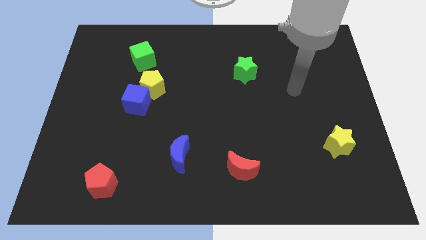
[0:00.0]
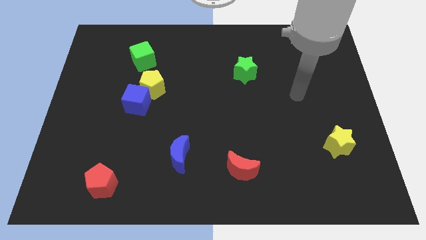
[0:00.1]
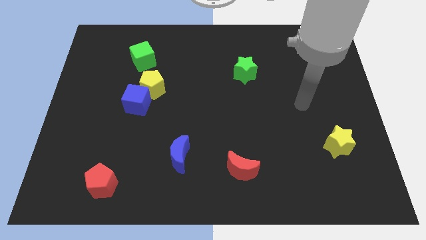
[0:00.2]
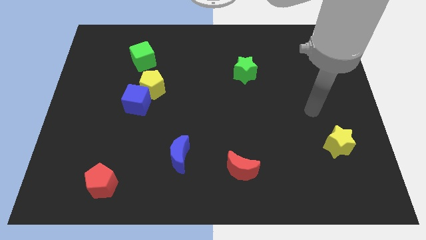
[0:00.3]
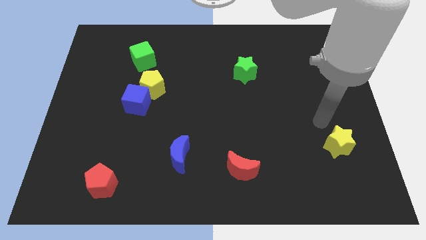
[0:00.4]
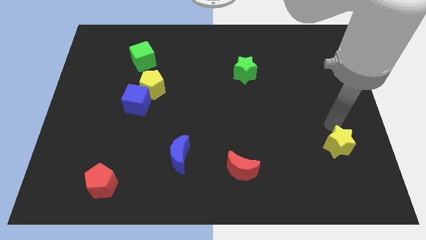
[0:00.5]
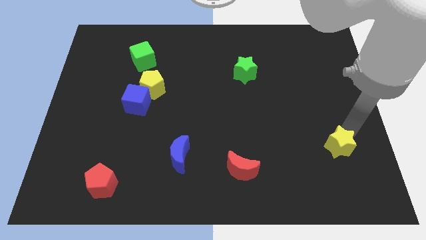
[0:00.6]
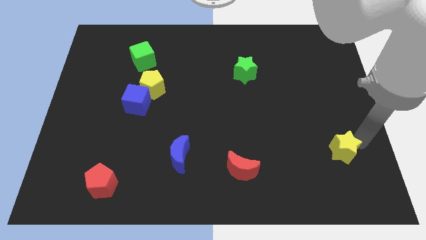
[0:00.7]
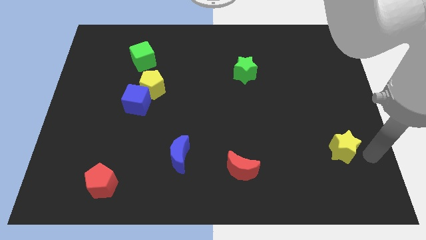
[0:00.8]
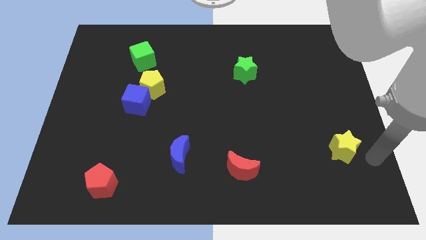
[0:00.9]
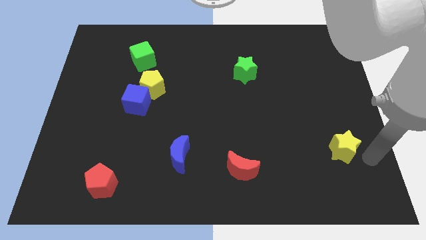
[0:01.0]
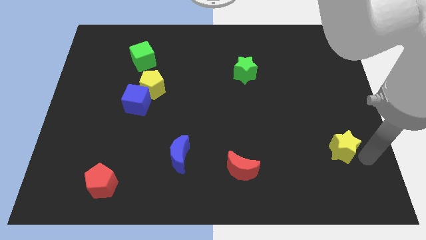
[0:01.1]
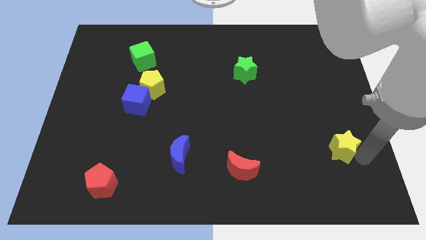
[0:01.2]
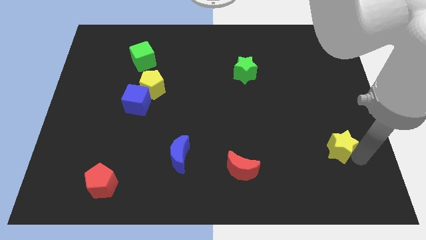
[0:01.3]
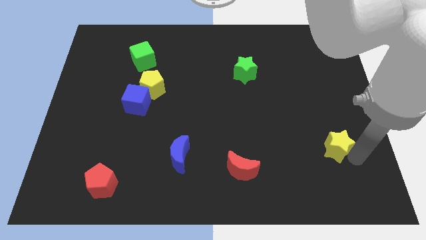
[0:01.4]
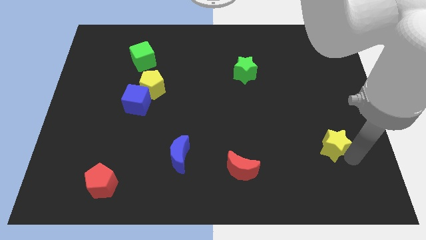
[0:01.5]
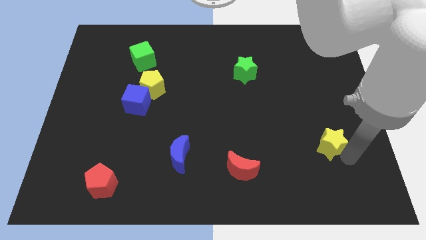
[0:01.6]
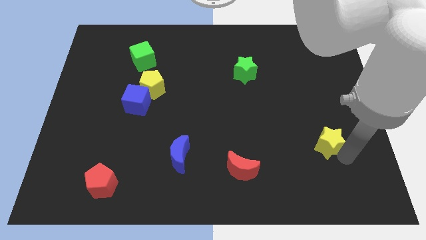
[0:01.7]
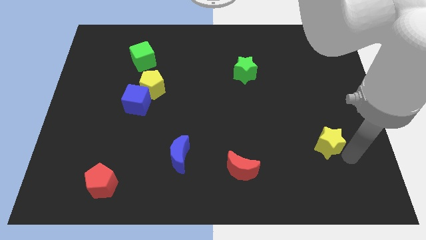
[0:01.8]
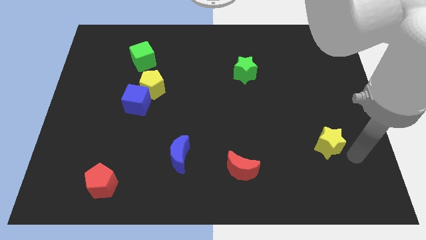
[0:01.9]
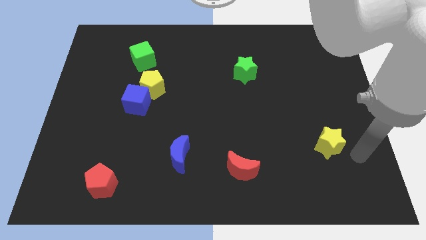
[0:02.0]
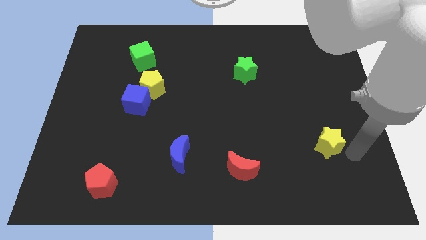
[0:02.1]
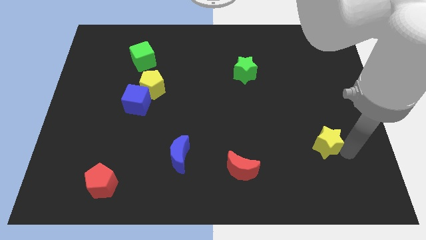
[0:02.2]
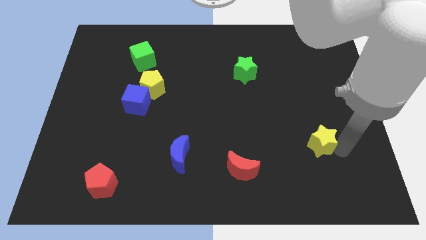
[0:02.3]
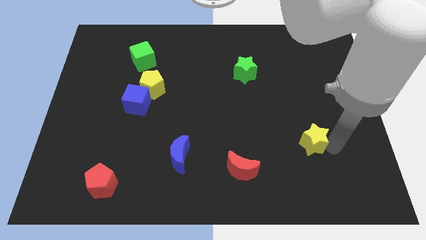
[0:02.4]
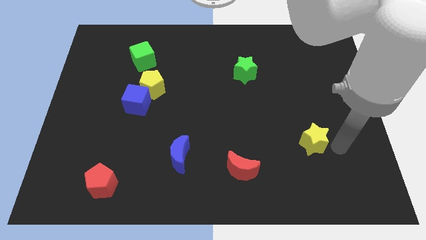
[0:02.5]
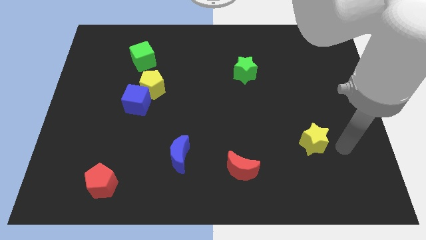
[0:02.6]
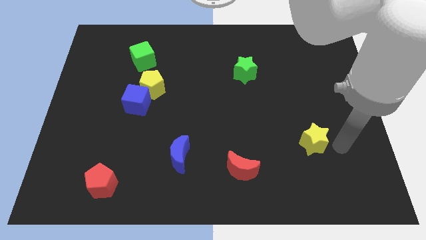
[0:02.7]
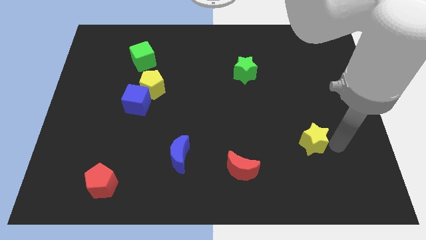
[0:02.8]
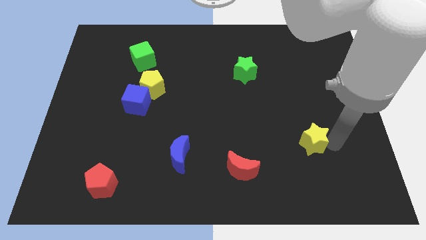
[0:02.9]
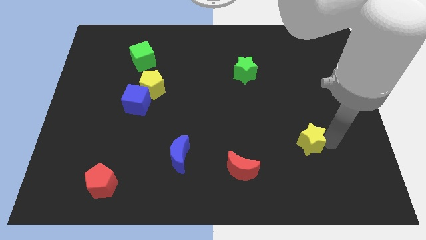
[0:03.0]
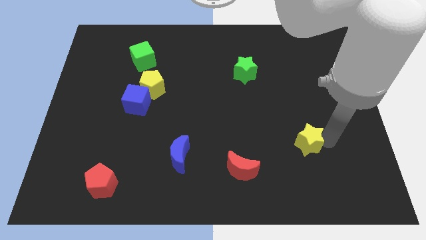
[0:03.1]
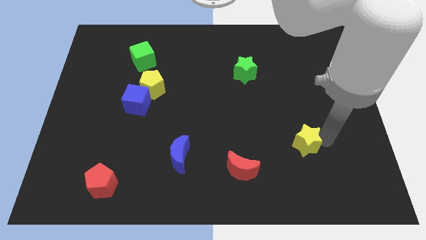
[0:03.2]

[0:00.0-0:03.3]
push the yellow star left slightly

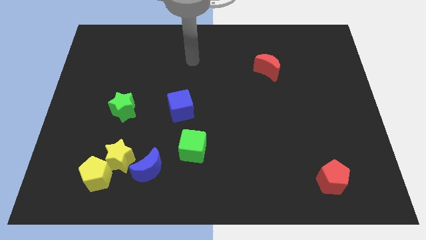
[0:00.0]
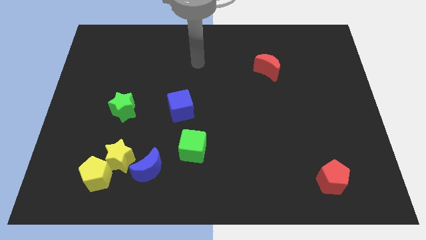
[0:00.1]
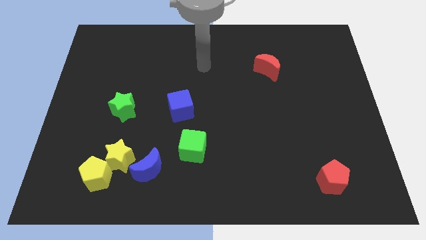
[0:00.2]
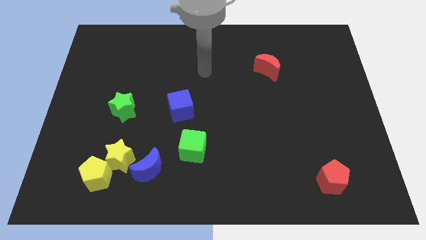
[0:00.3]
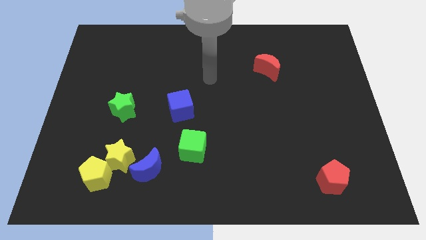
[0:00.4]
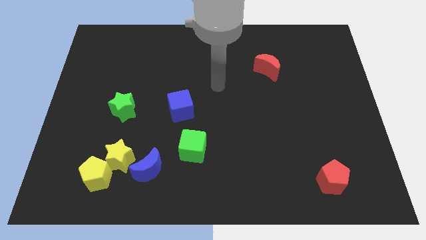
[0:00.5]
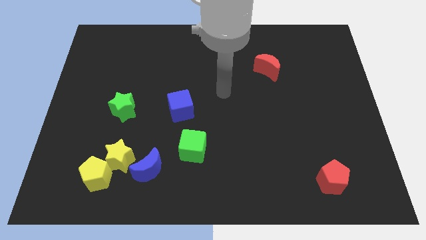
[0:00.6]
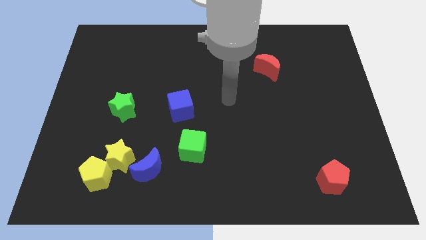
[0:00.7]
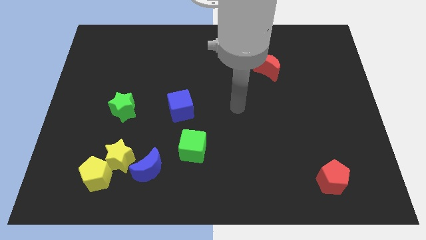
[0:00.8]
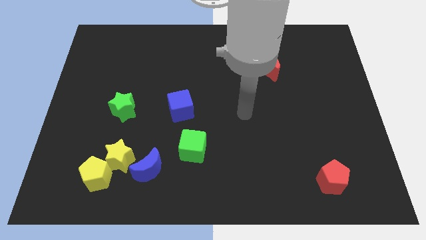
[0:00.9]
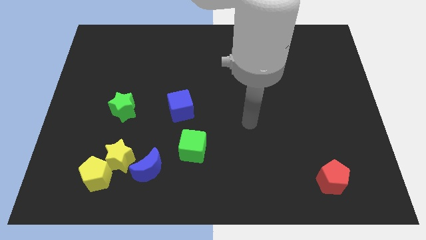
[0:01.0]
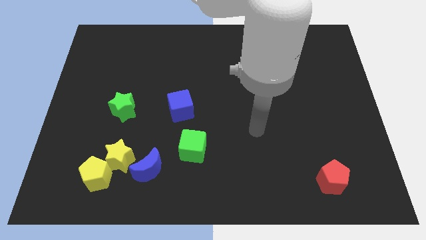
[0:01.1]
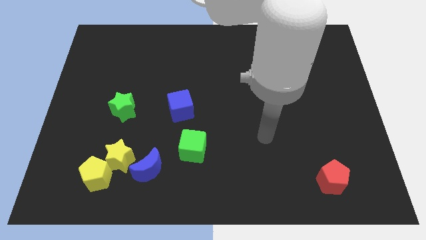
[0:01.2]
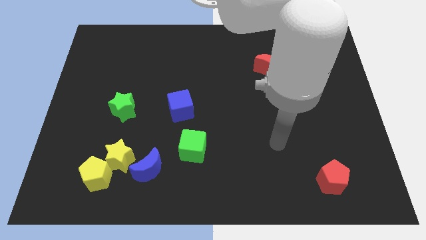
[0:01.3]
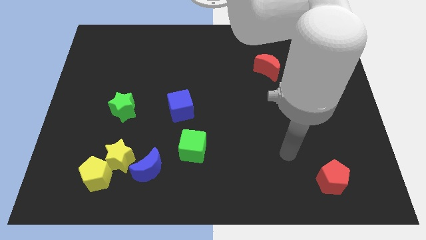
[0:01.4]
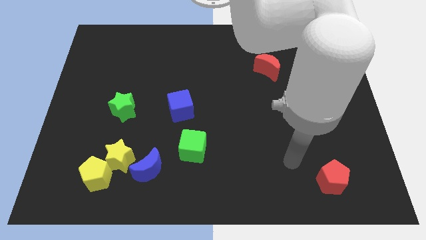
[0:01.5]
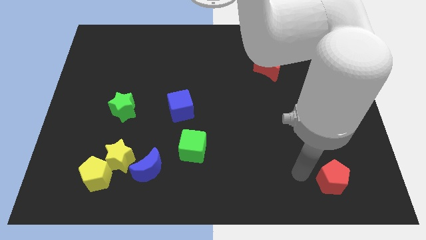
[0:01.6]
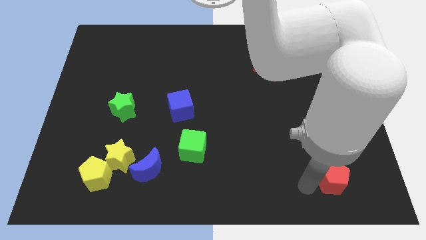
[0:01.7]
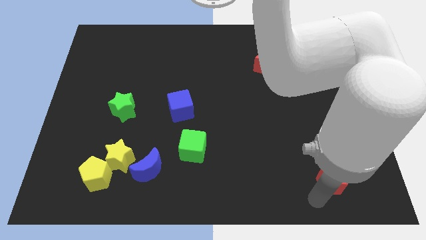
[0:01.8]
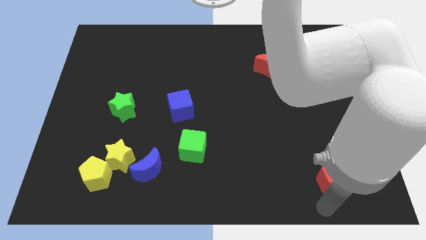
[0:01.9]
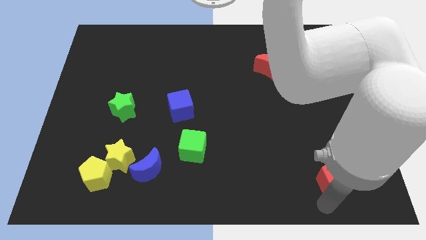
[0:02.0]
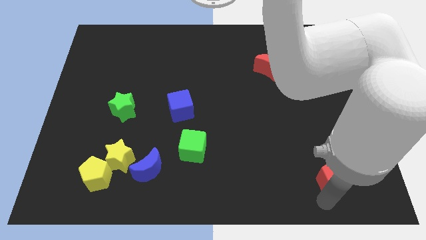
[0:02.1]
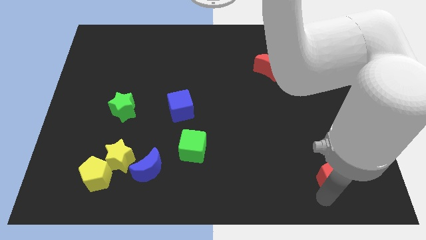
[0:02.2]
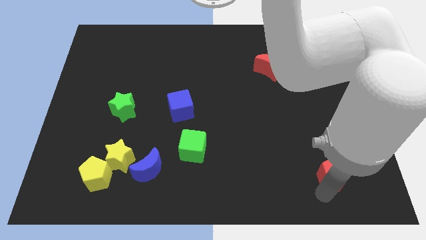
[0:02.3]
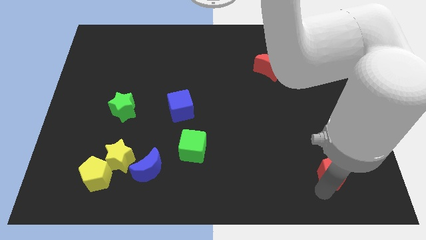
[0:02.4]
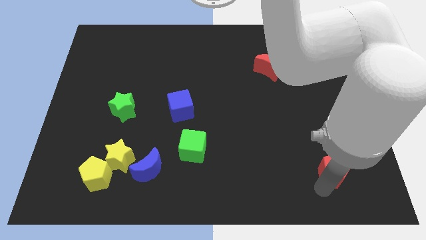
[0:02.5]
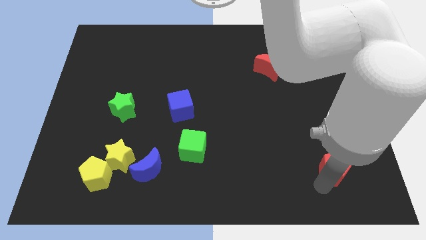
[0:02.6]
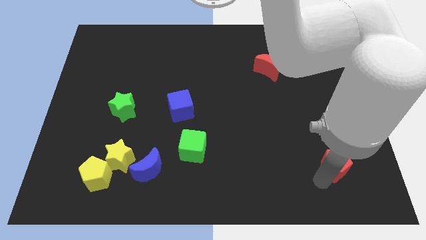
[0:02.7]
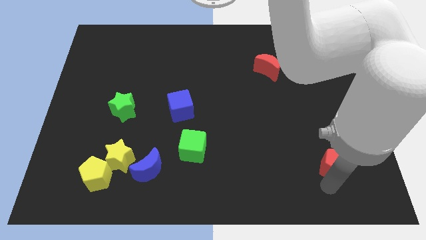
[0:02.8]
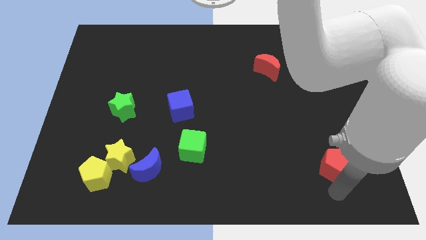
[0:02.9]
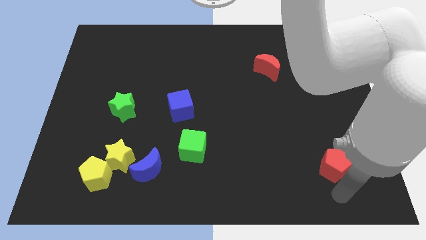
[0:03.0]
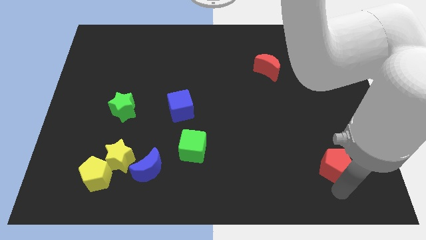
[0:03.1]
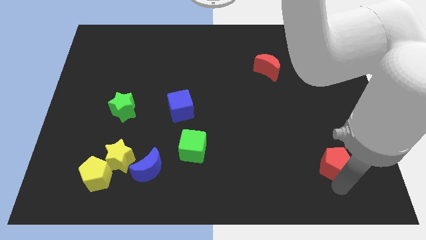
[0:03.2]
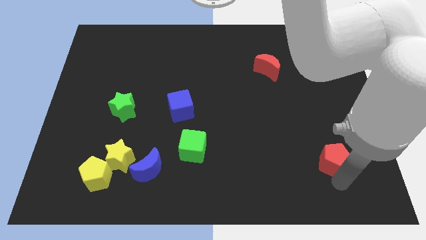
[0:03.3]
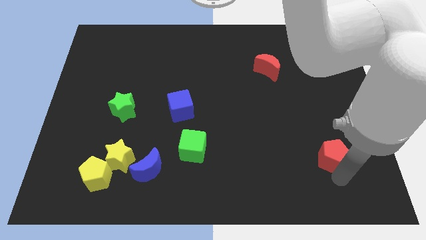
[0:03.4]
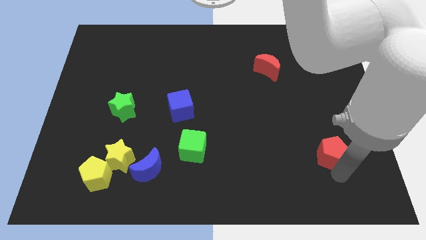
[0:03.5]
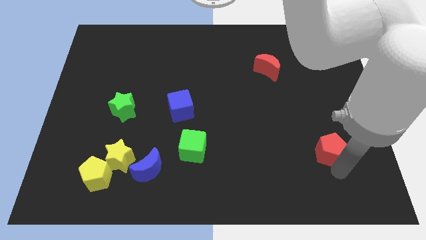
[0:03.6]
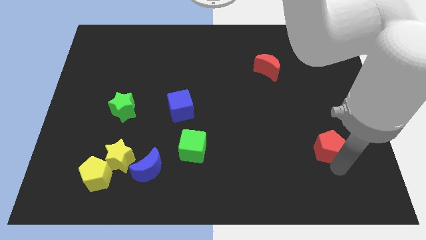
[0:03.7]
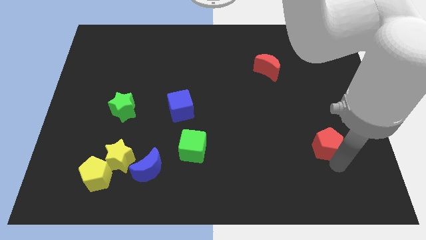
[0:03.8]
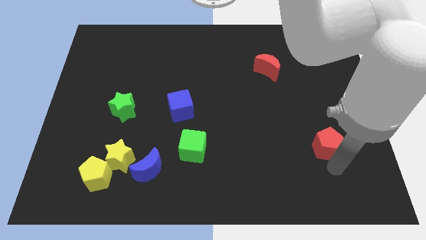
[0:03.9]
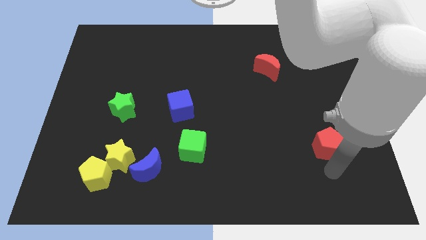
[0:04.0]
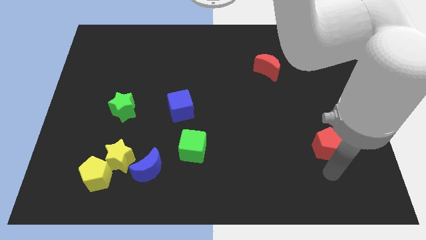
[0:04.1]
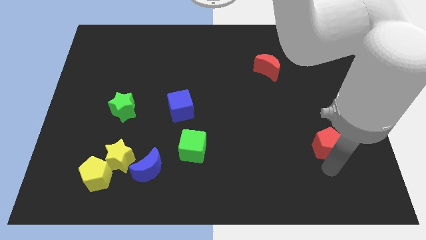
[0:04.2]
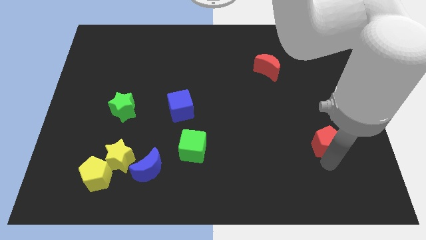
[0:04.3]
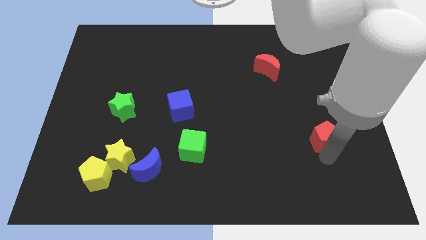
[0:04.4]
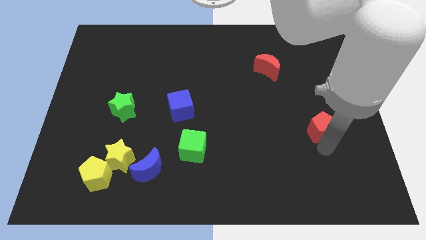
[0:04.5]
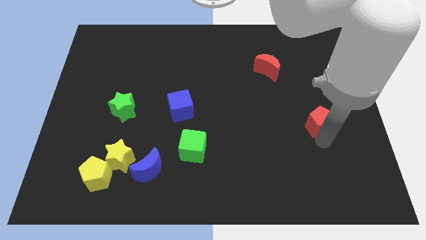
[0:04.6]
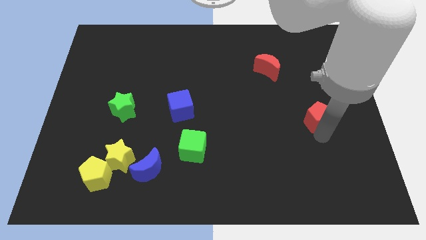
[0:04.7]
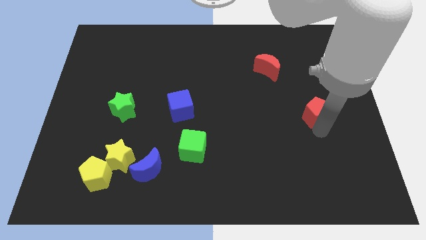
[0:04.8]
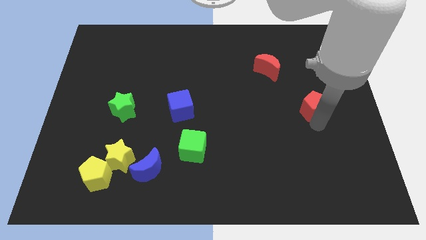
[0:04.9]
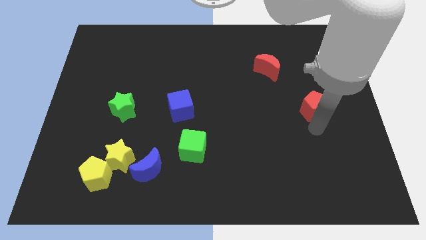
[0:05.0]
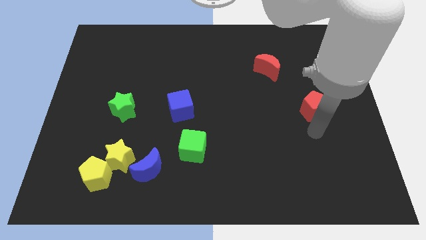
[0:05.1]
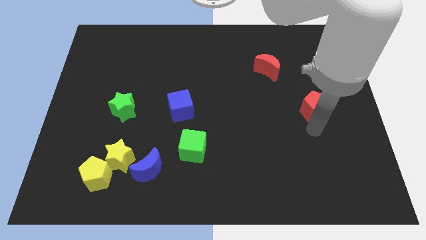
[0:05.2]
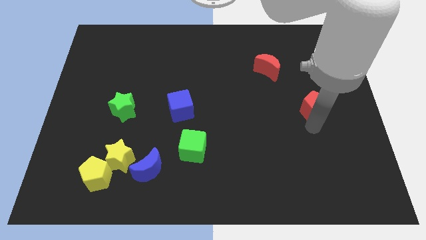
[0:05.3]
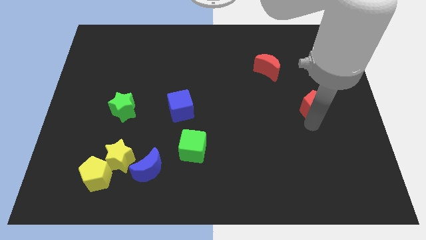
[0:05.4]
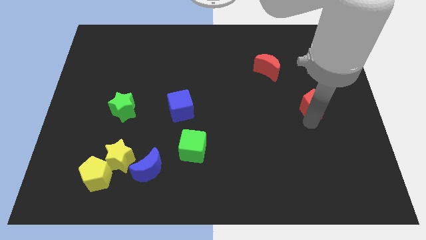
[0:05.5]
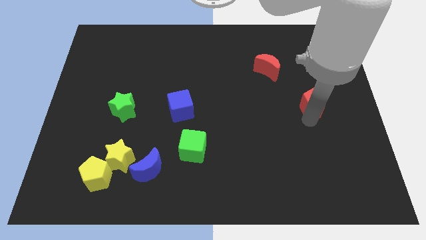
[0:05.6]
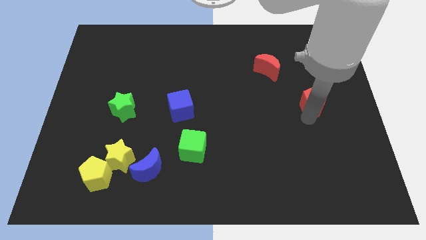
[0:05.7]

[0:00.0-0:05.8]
move the red pentagon up
